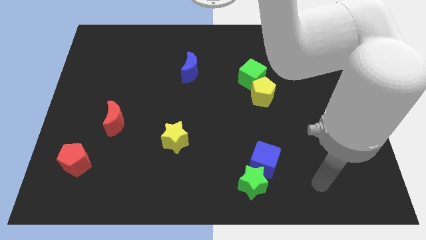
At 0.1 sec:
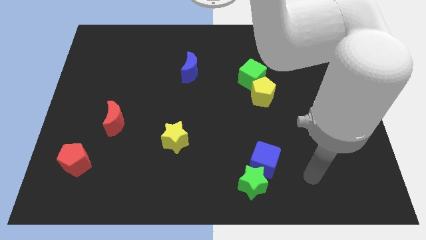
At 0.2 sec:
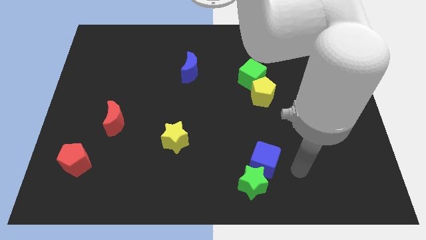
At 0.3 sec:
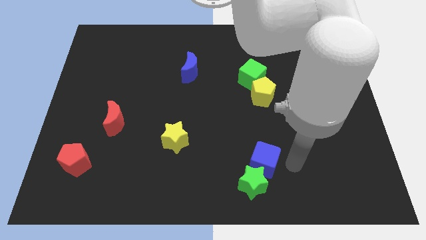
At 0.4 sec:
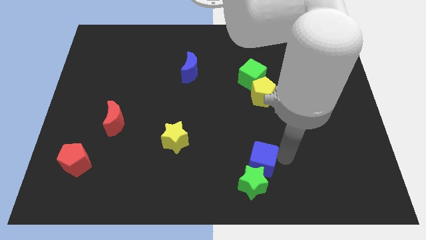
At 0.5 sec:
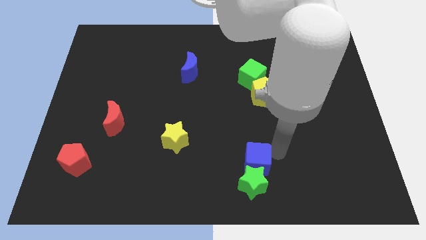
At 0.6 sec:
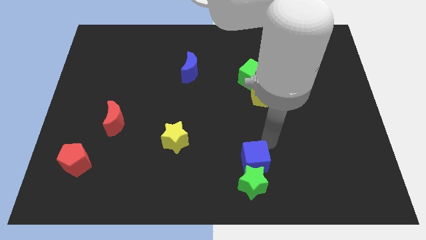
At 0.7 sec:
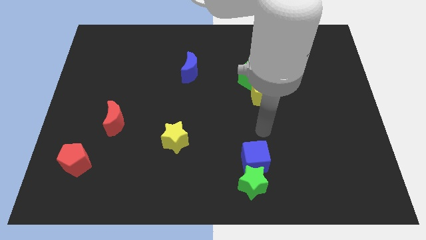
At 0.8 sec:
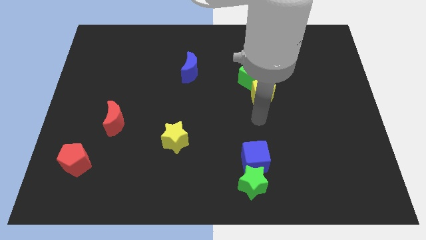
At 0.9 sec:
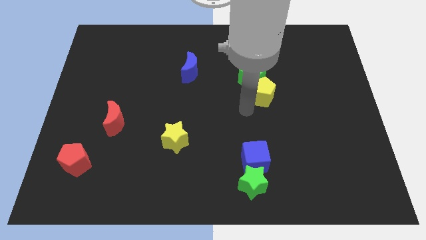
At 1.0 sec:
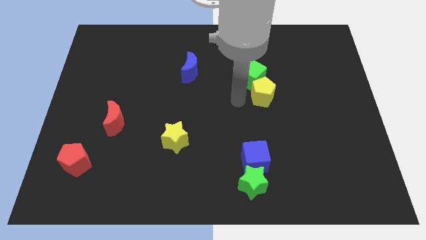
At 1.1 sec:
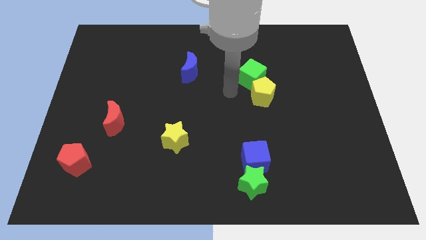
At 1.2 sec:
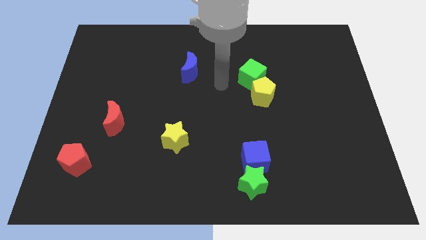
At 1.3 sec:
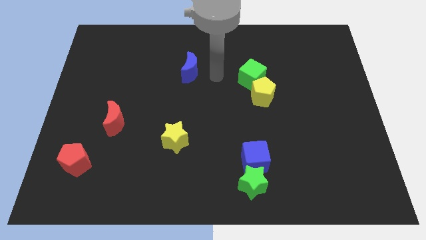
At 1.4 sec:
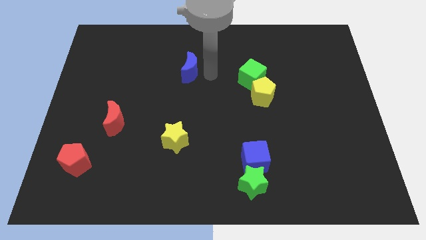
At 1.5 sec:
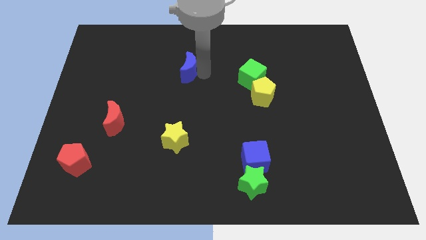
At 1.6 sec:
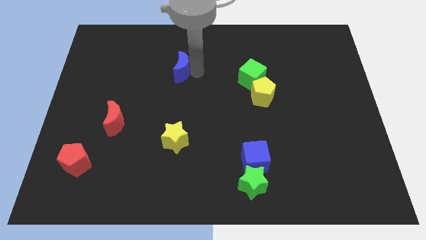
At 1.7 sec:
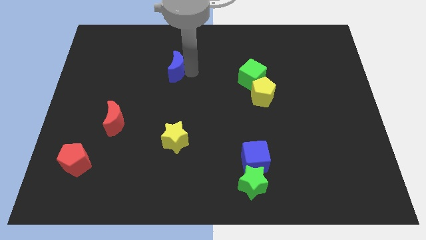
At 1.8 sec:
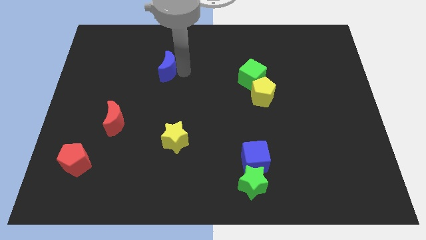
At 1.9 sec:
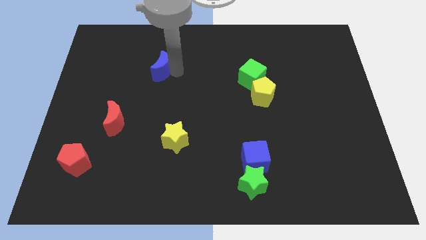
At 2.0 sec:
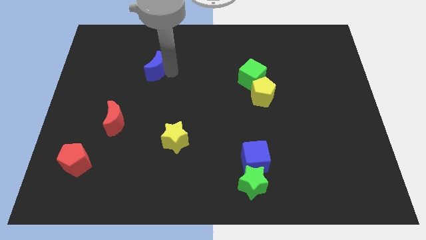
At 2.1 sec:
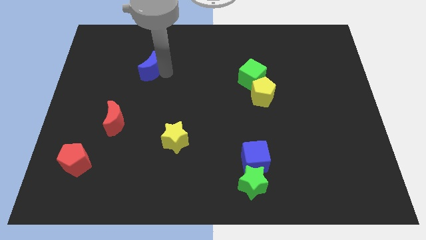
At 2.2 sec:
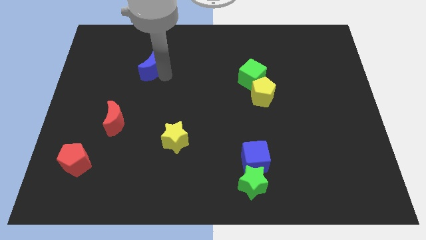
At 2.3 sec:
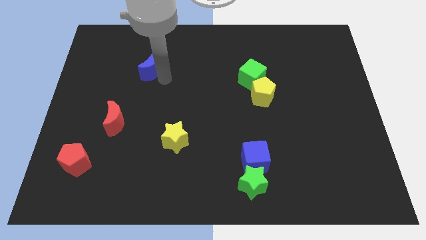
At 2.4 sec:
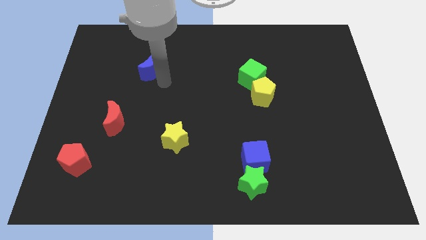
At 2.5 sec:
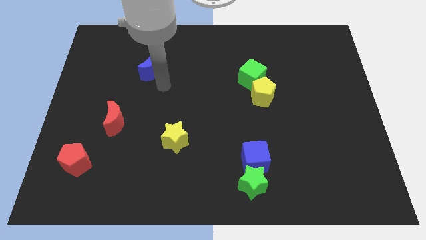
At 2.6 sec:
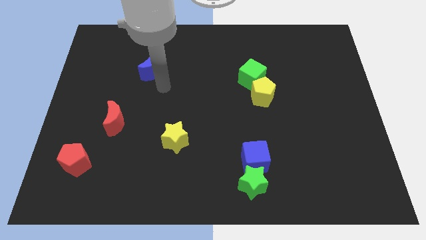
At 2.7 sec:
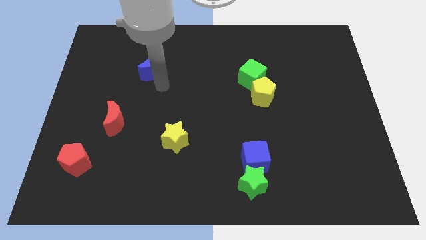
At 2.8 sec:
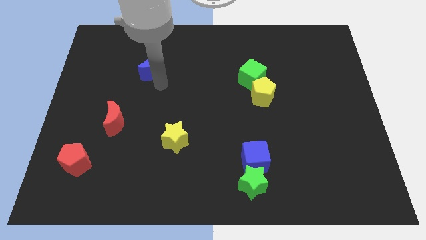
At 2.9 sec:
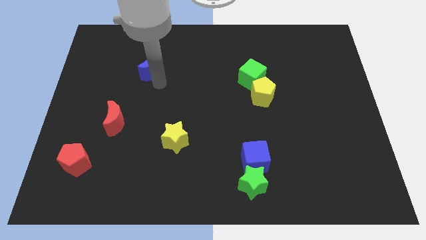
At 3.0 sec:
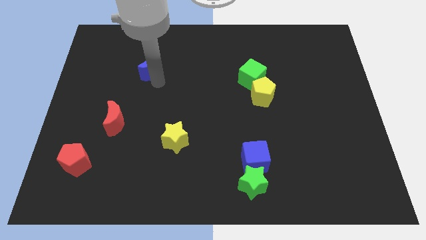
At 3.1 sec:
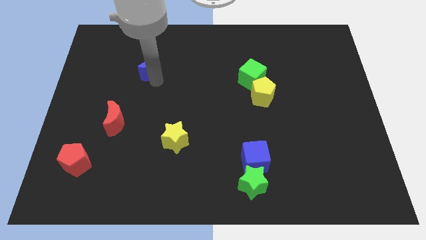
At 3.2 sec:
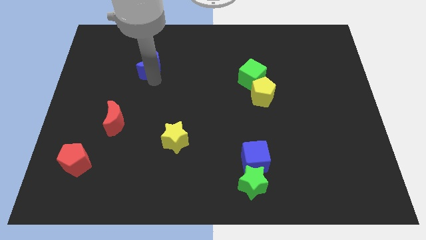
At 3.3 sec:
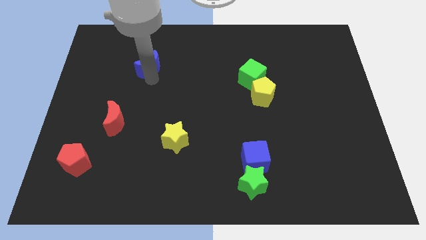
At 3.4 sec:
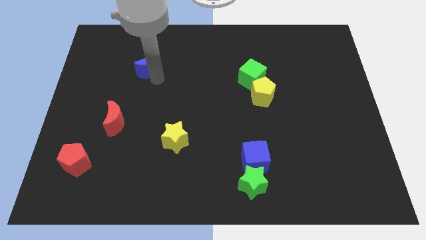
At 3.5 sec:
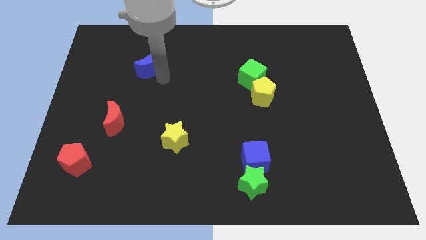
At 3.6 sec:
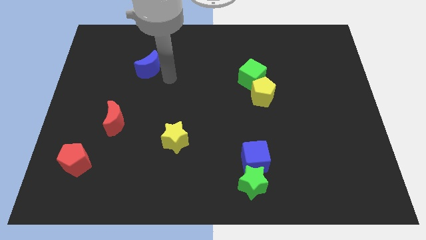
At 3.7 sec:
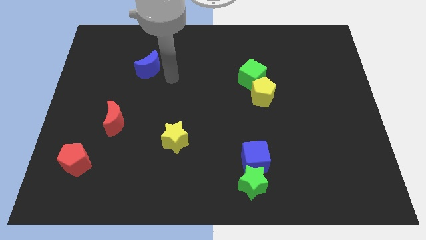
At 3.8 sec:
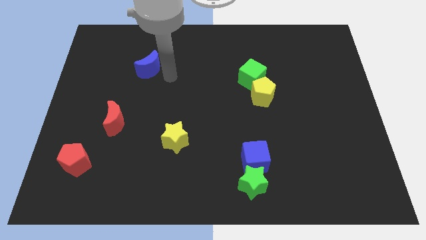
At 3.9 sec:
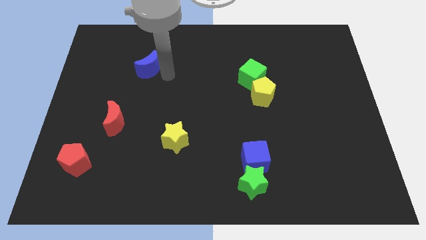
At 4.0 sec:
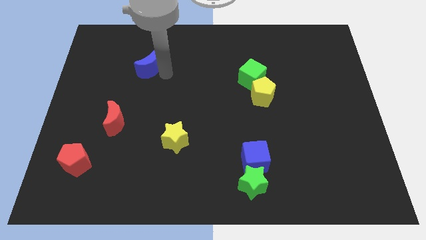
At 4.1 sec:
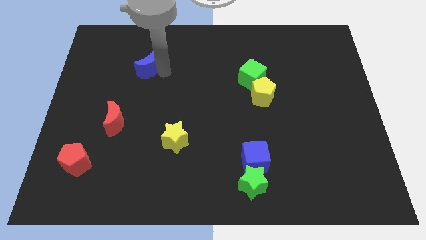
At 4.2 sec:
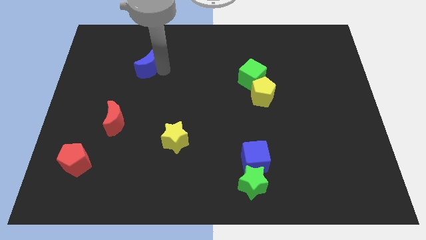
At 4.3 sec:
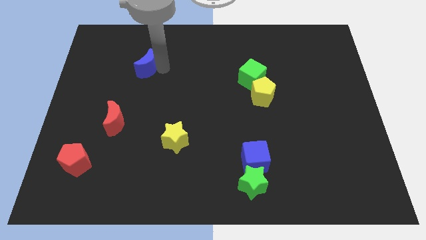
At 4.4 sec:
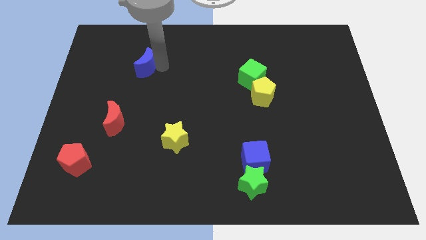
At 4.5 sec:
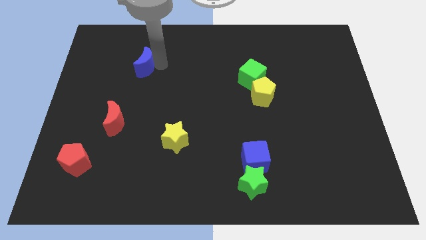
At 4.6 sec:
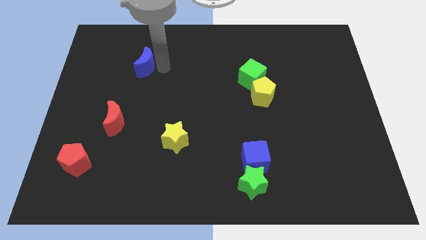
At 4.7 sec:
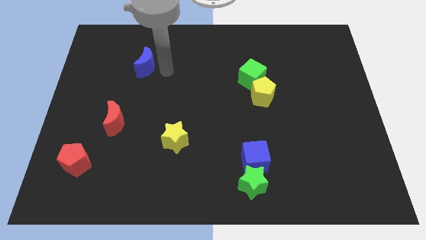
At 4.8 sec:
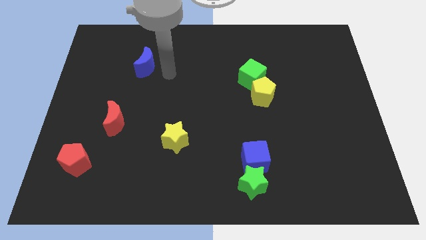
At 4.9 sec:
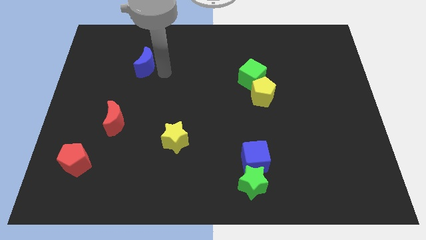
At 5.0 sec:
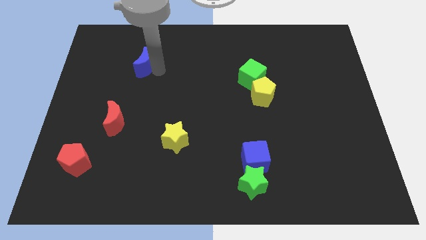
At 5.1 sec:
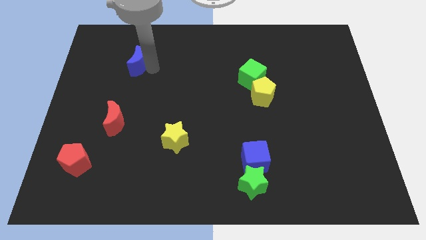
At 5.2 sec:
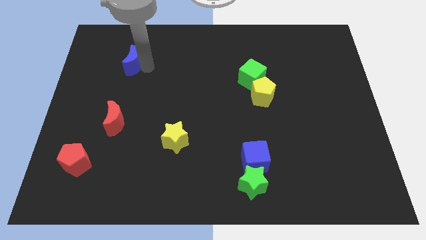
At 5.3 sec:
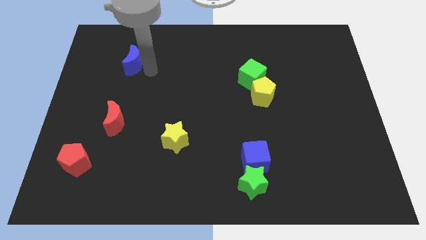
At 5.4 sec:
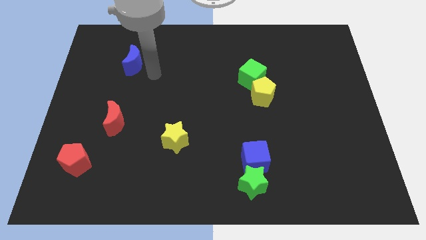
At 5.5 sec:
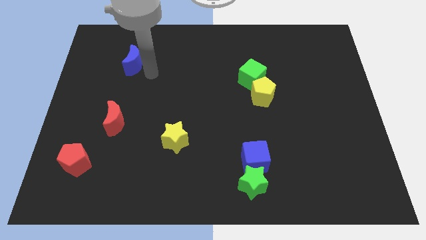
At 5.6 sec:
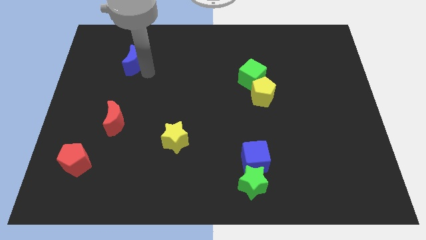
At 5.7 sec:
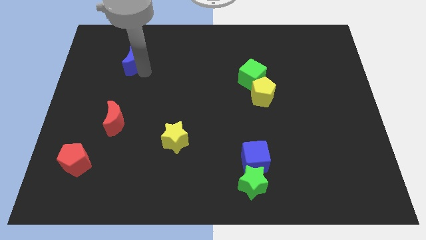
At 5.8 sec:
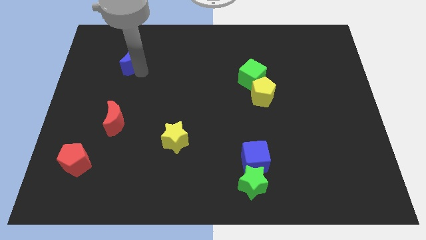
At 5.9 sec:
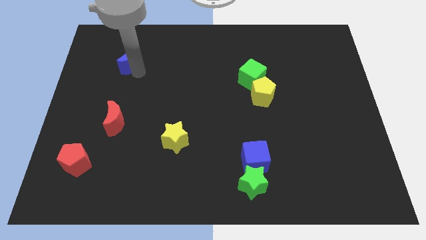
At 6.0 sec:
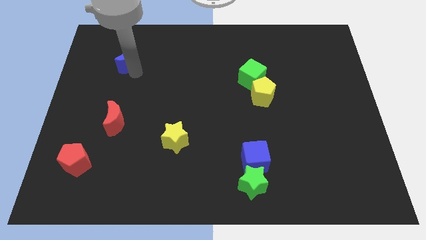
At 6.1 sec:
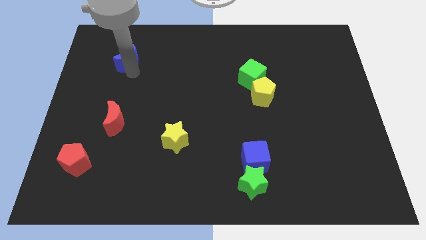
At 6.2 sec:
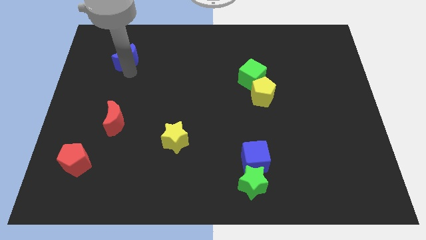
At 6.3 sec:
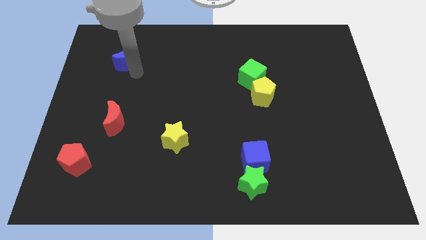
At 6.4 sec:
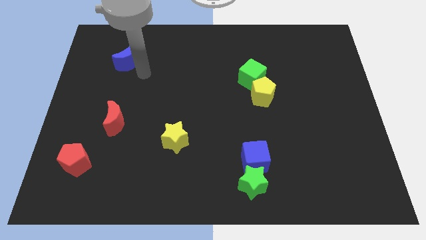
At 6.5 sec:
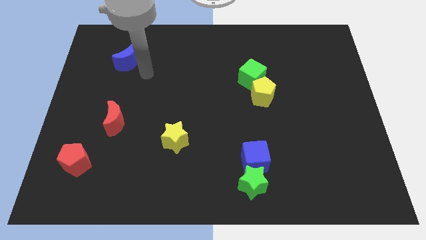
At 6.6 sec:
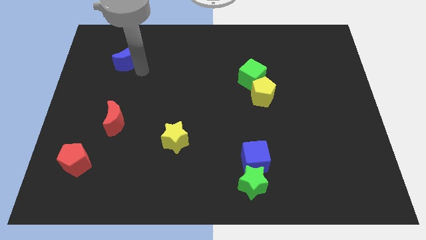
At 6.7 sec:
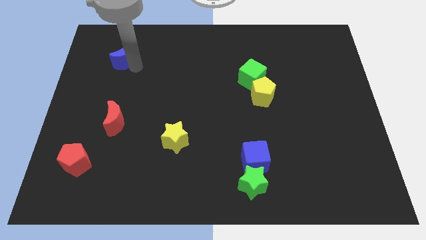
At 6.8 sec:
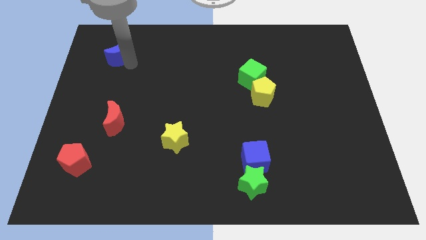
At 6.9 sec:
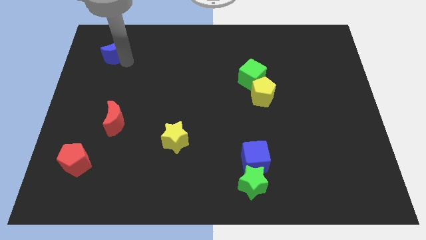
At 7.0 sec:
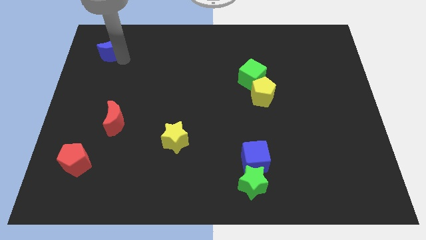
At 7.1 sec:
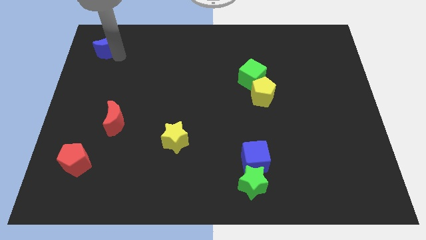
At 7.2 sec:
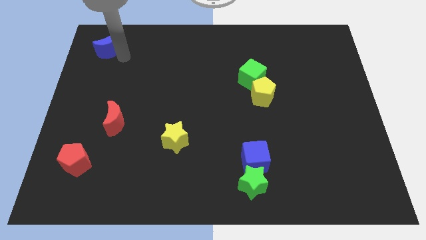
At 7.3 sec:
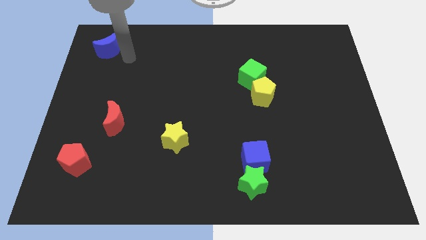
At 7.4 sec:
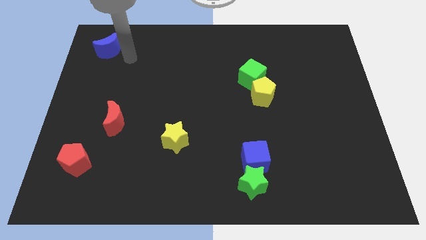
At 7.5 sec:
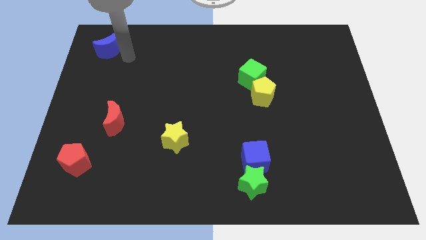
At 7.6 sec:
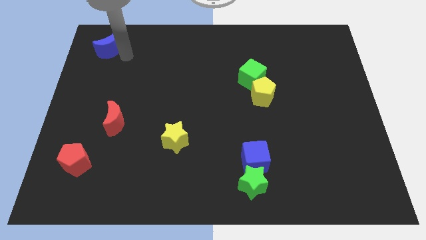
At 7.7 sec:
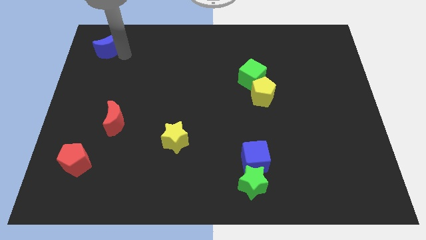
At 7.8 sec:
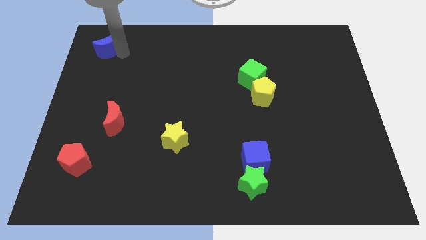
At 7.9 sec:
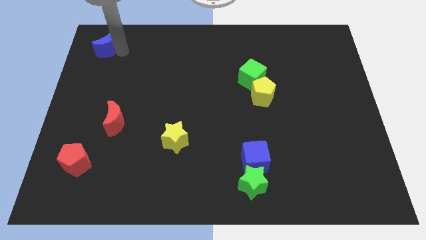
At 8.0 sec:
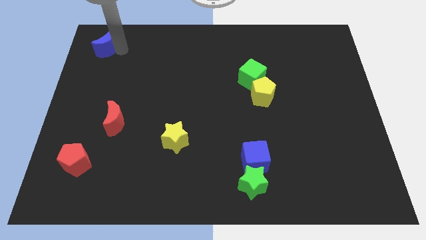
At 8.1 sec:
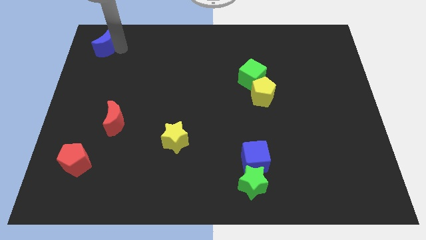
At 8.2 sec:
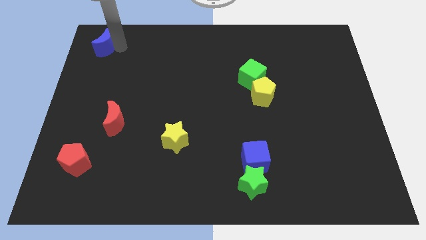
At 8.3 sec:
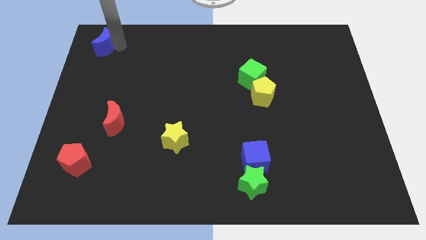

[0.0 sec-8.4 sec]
slide the blue moon to the upper left corner
